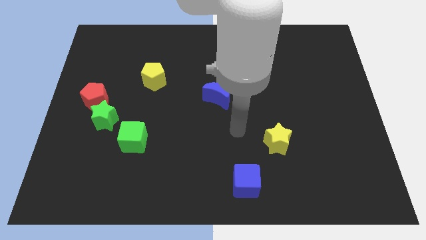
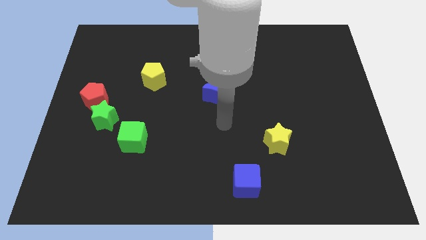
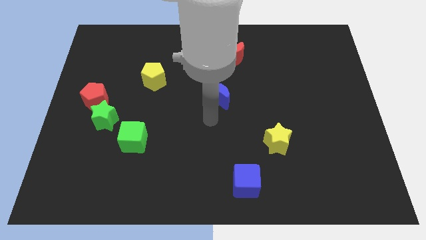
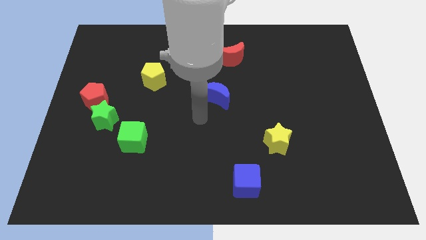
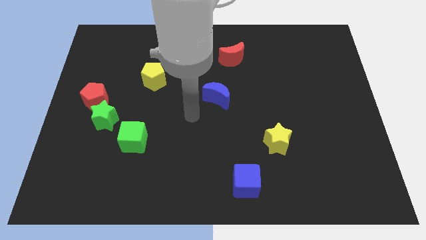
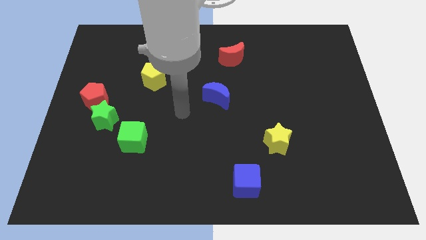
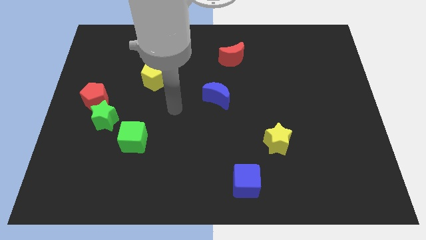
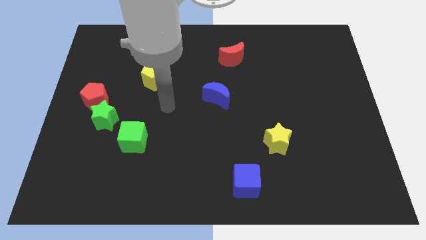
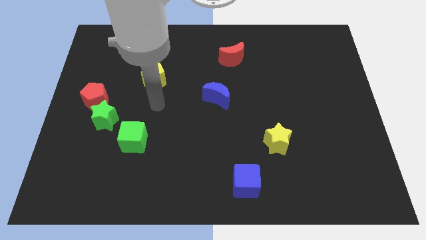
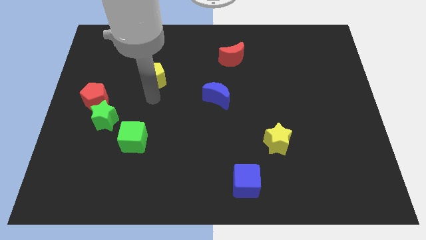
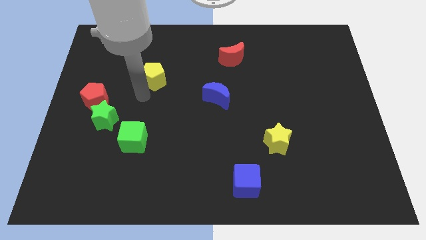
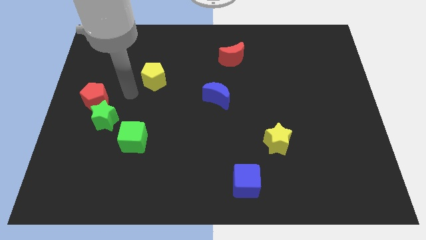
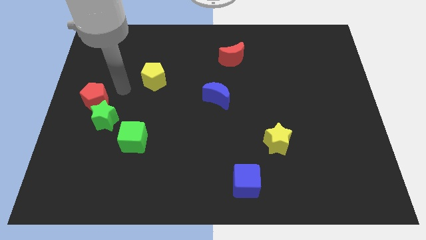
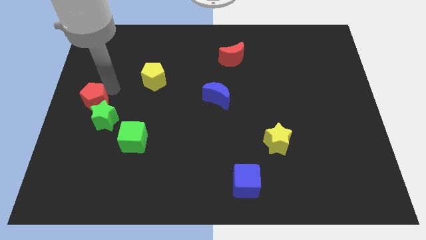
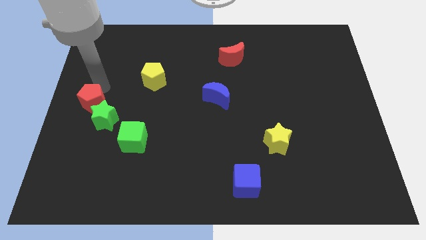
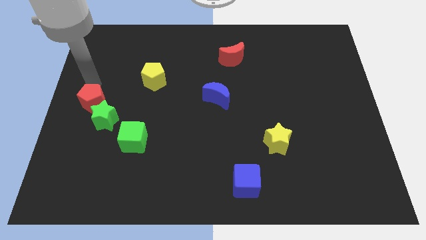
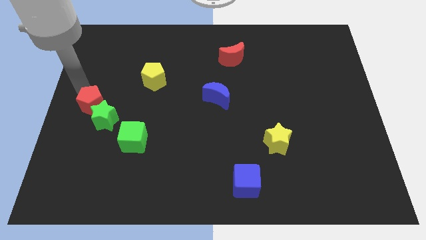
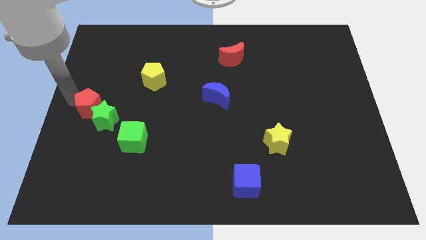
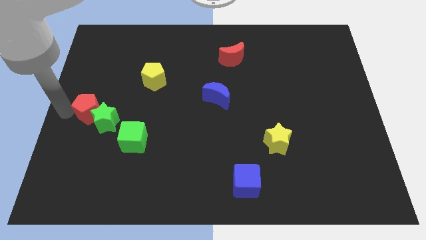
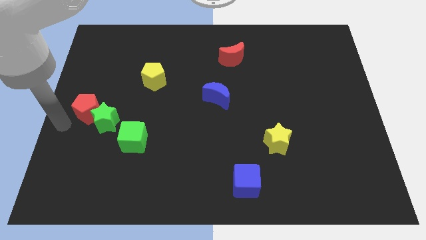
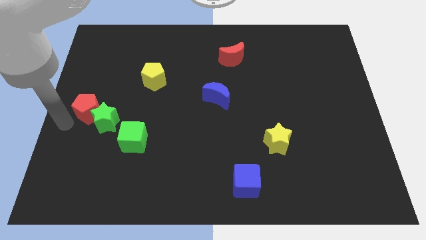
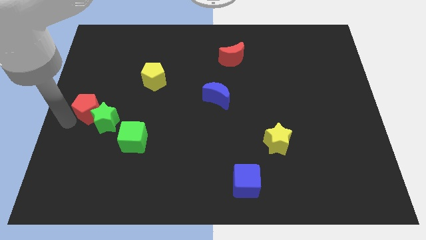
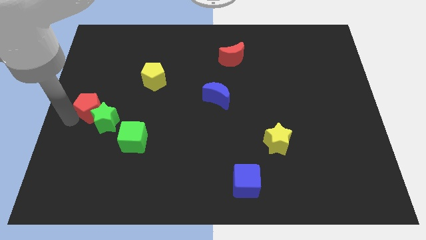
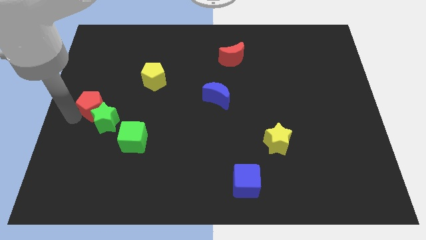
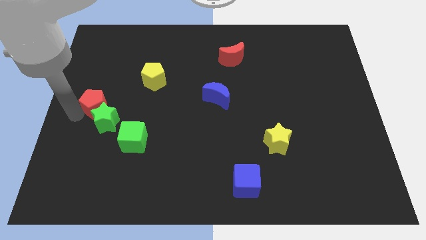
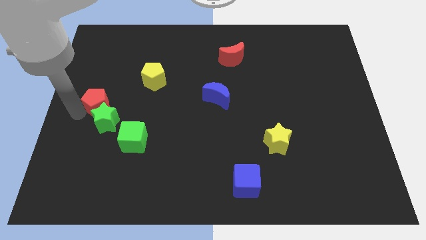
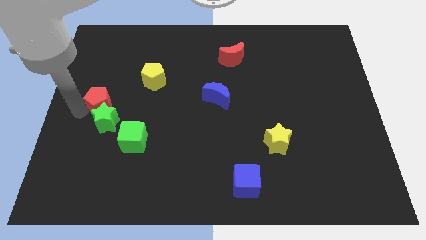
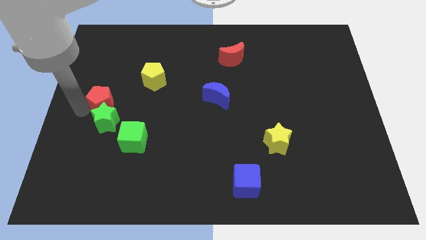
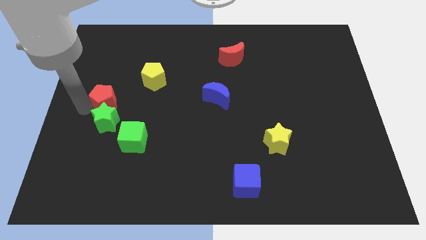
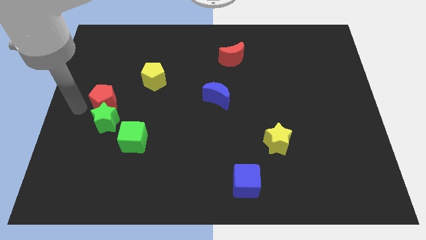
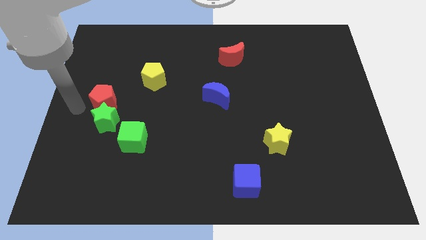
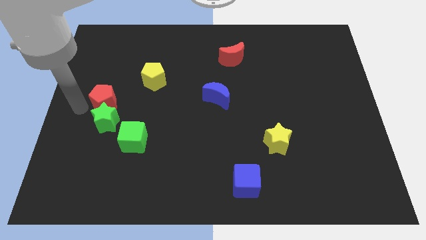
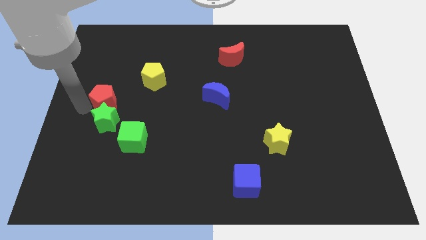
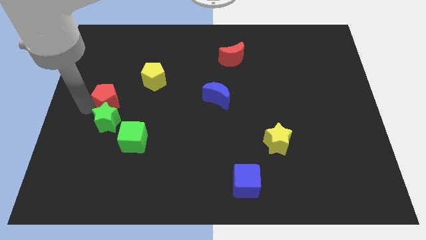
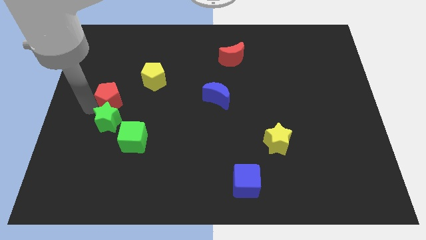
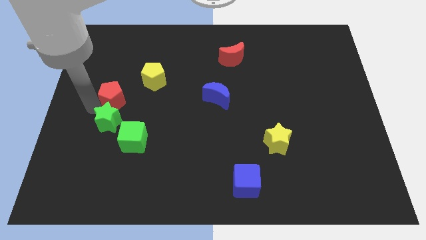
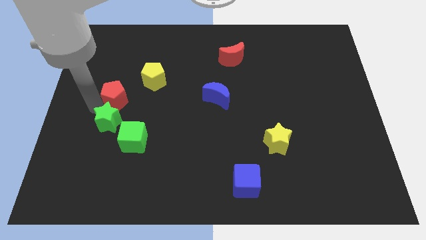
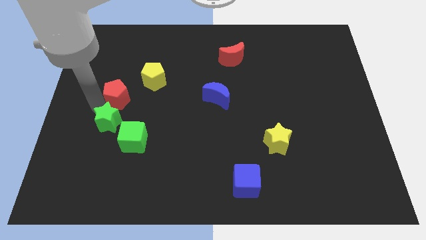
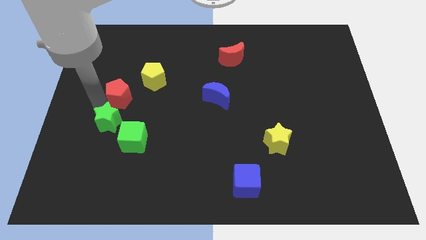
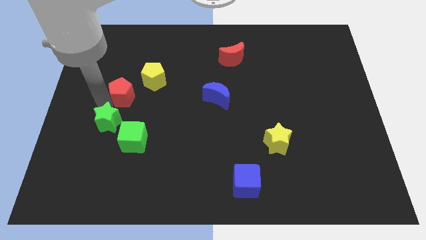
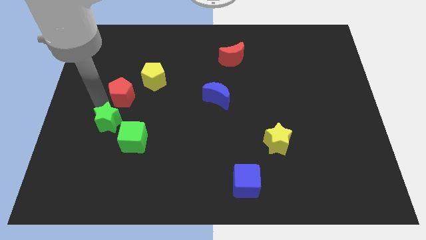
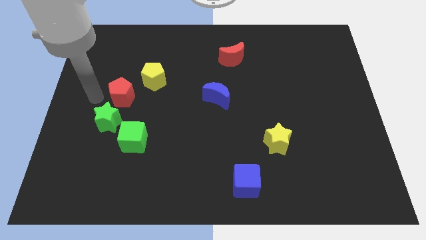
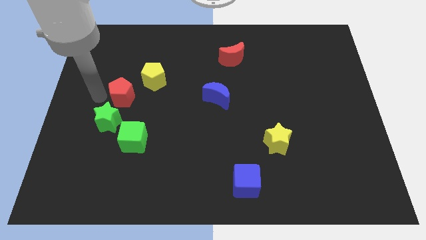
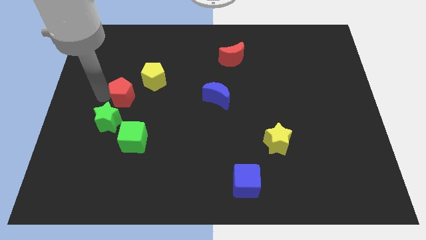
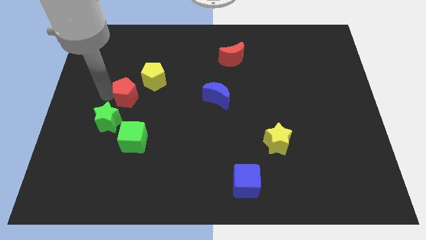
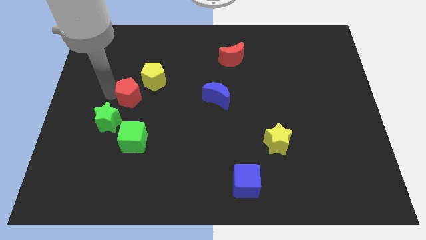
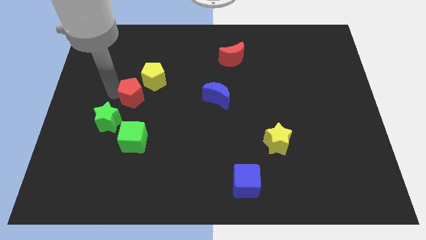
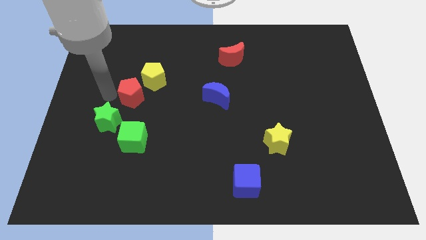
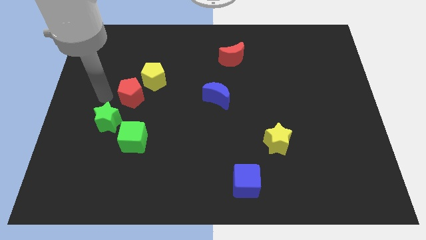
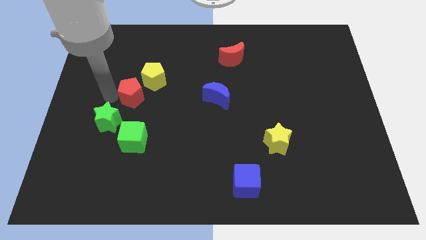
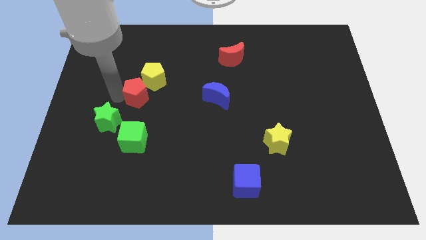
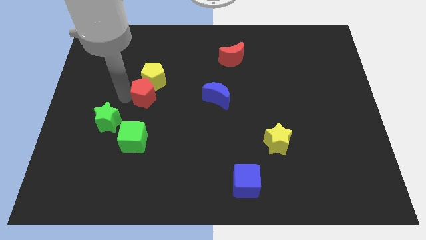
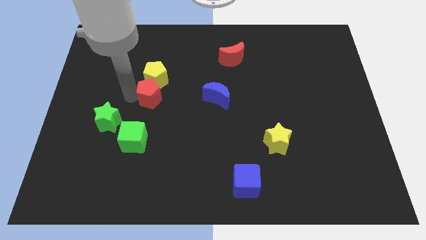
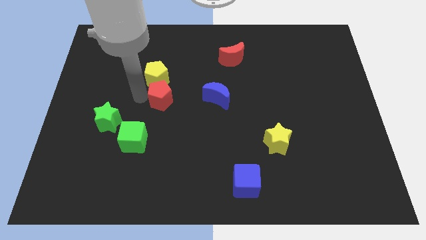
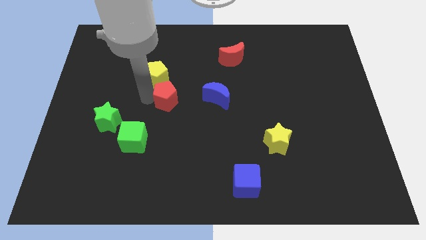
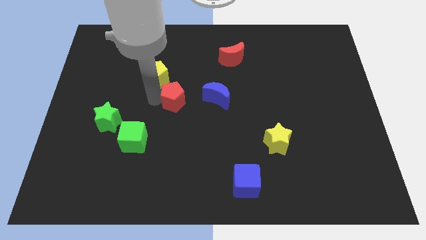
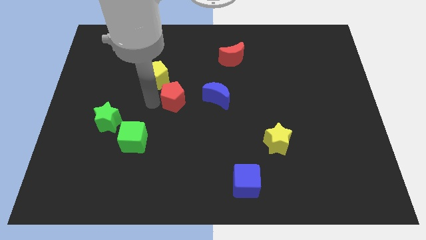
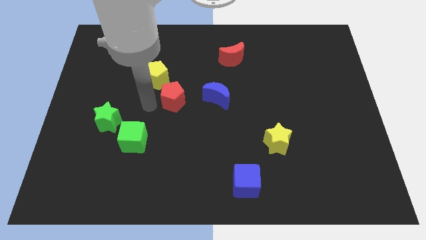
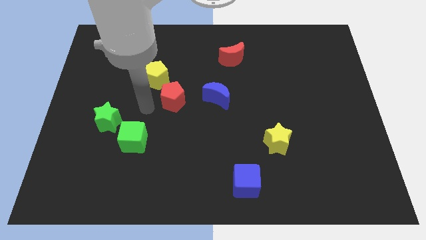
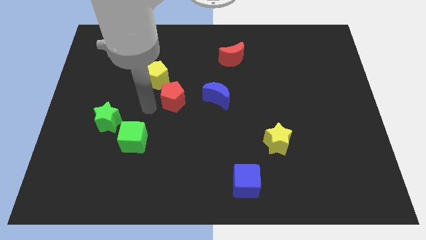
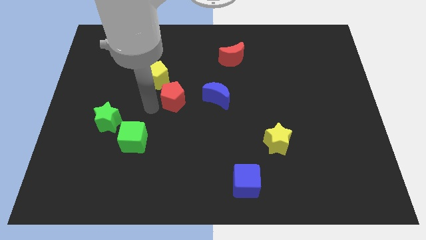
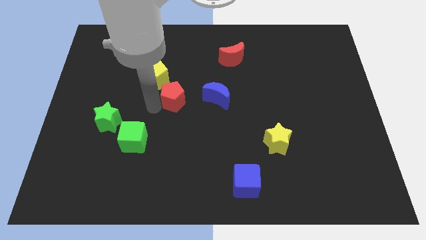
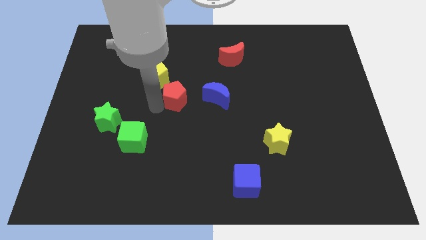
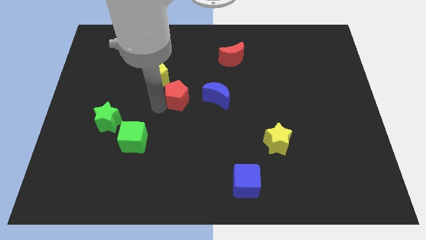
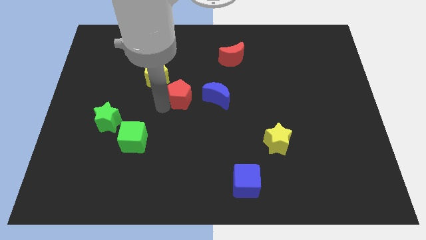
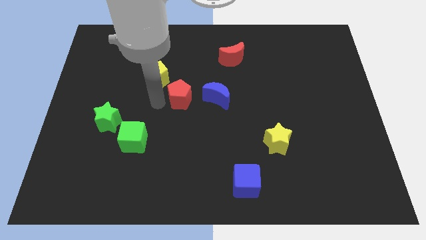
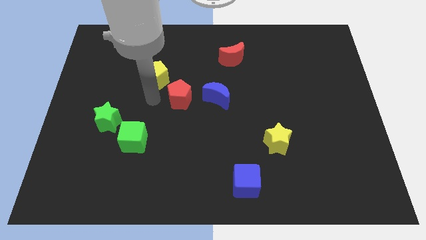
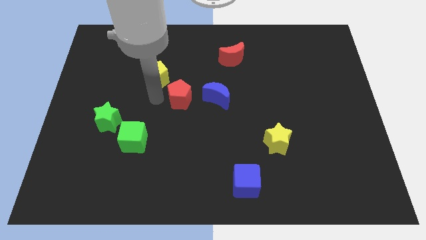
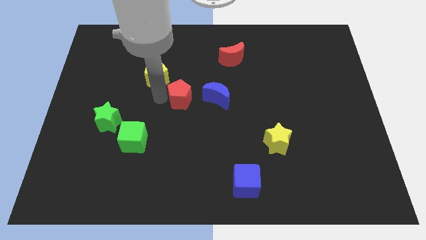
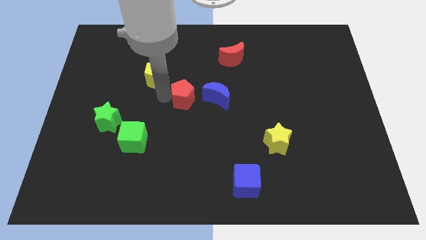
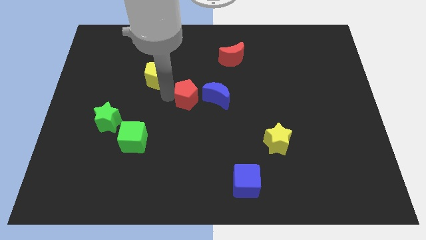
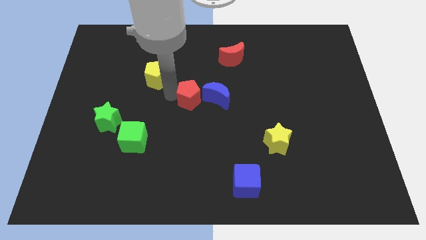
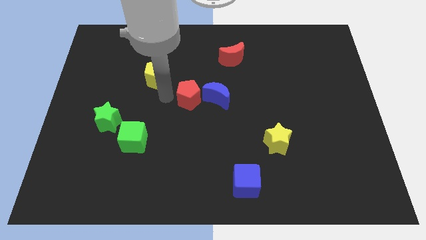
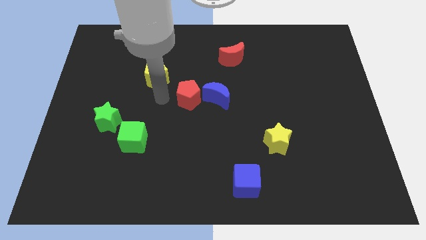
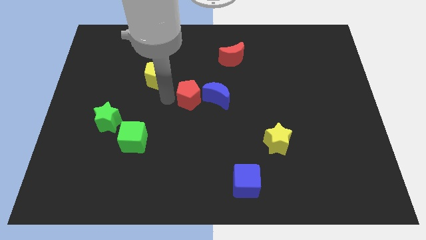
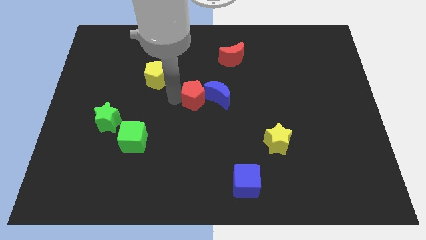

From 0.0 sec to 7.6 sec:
move the red pentagon close to the blue moon

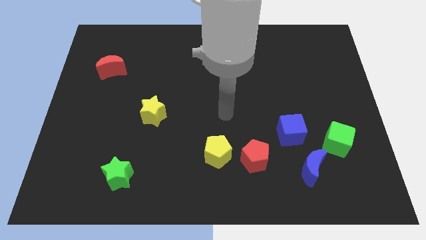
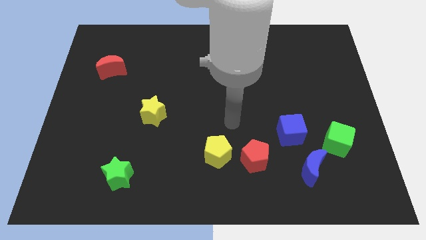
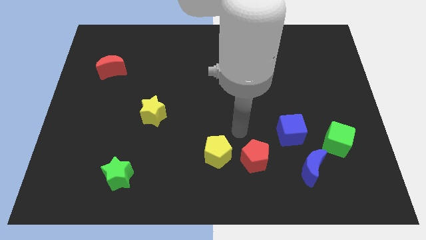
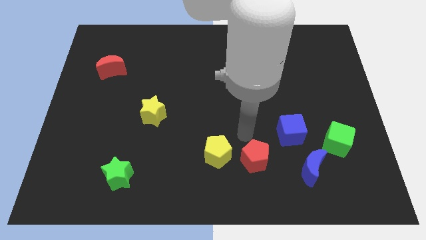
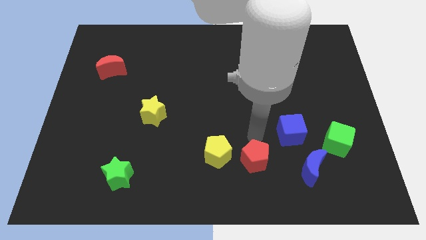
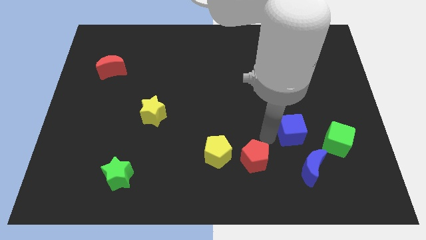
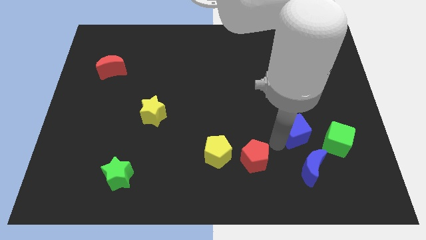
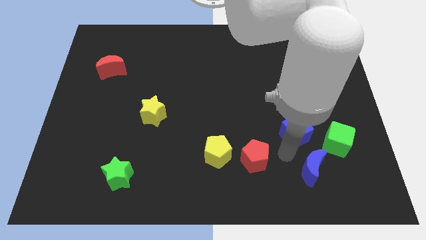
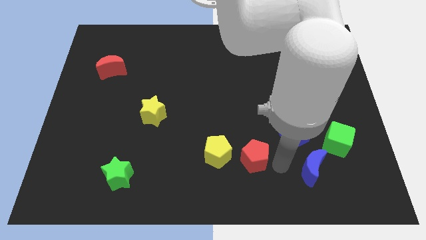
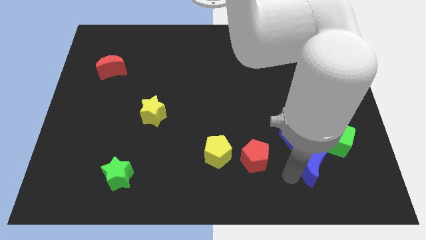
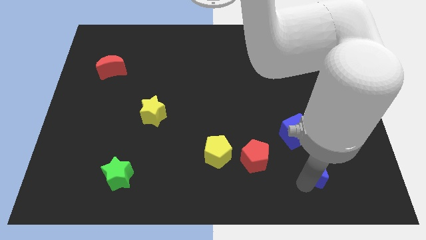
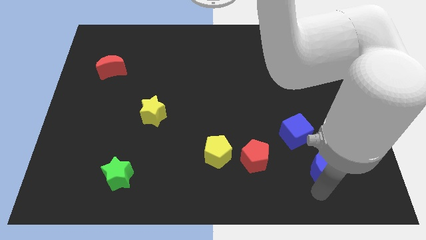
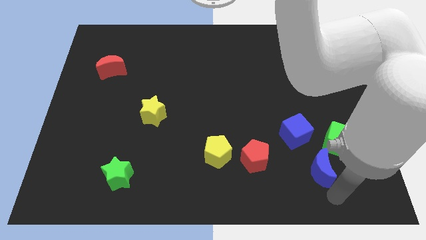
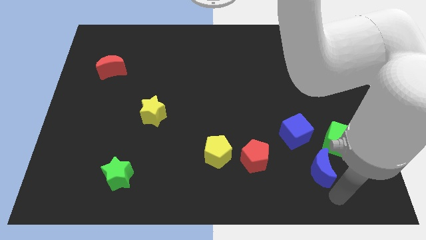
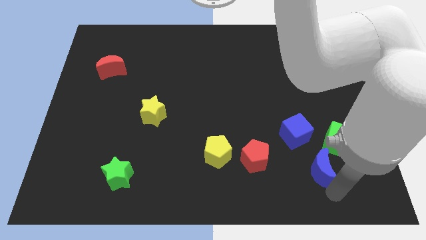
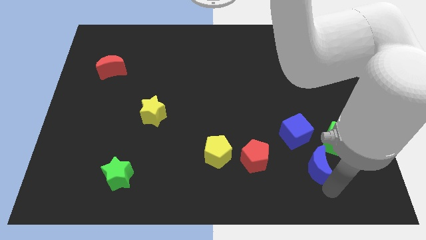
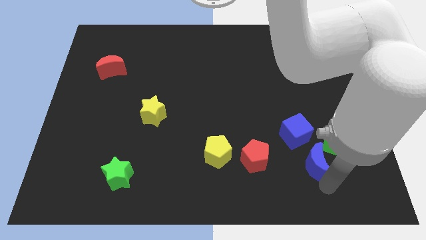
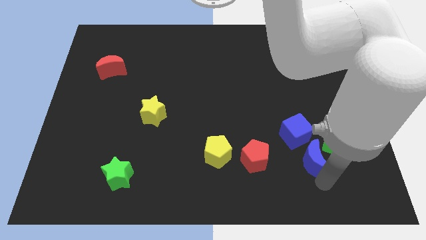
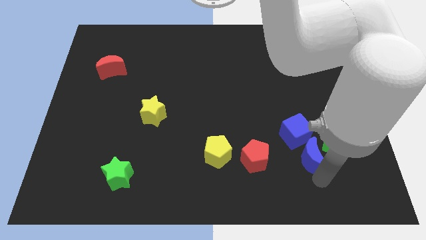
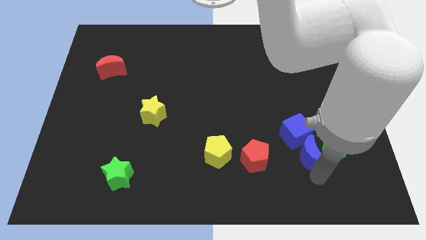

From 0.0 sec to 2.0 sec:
push the blue moon towards the blue cube
